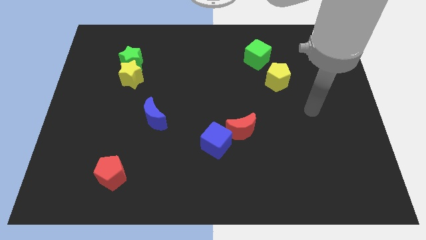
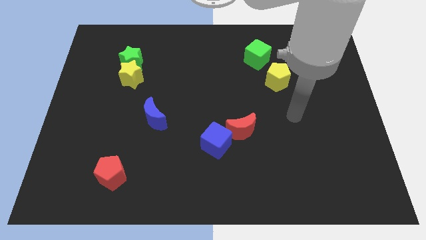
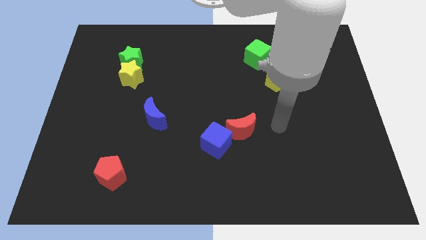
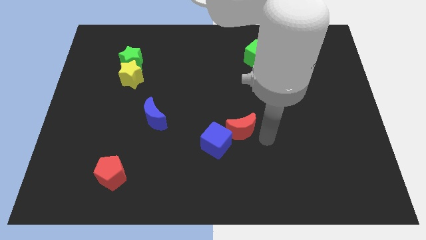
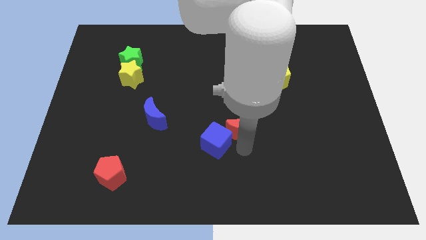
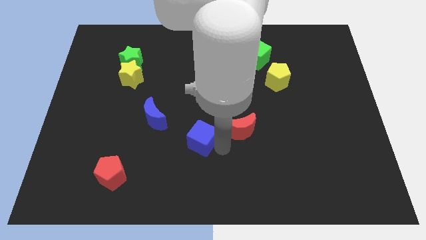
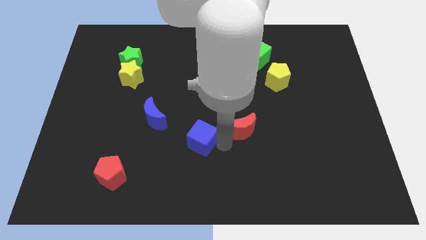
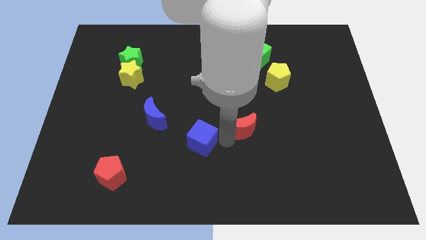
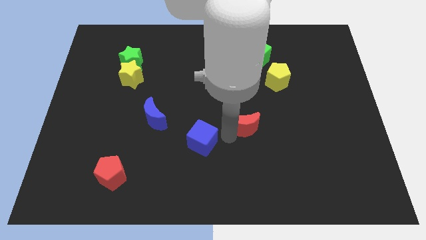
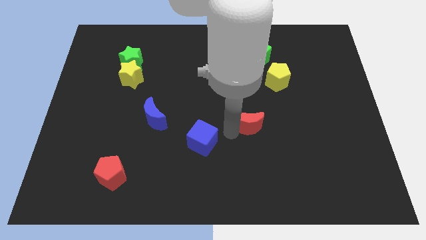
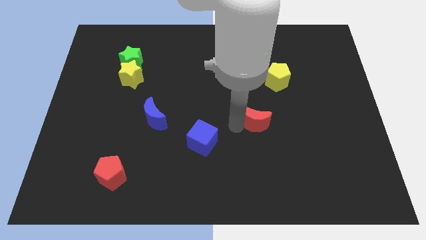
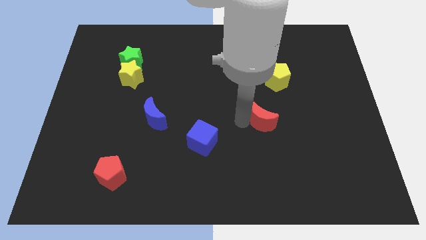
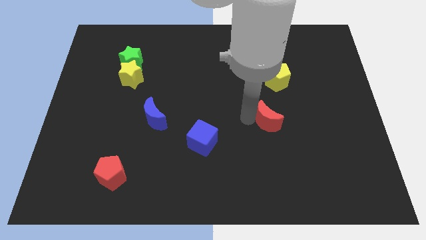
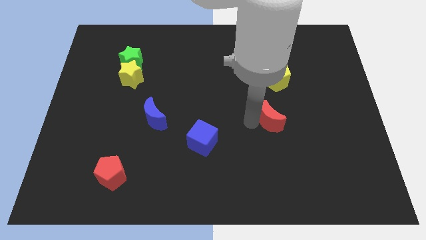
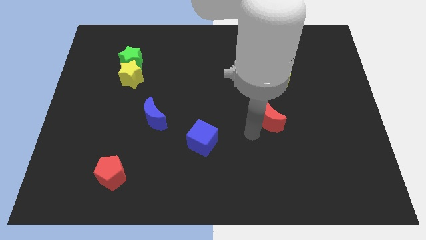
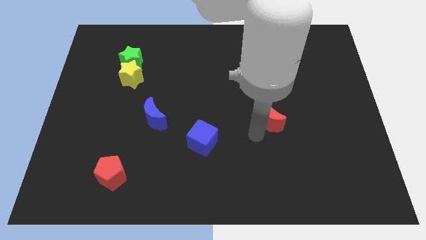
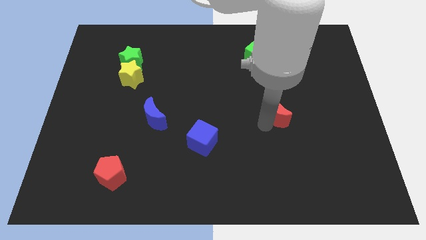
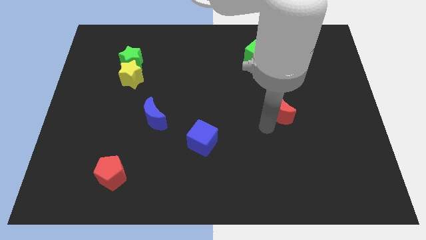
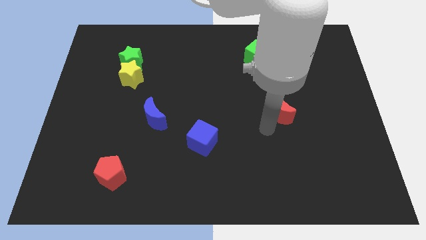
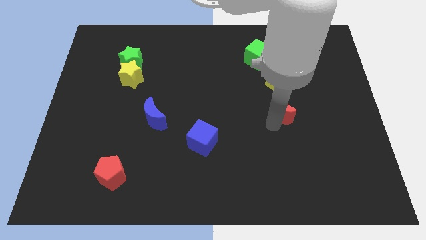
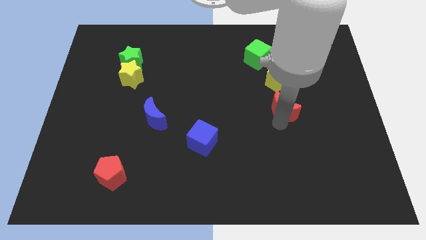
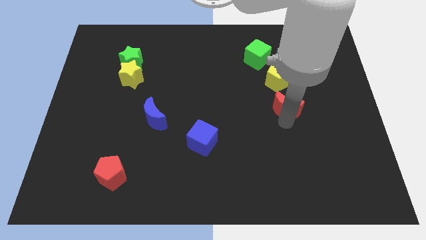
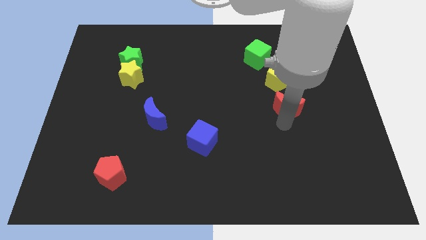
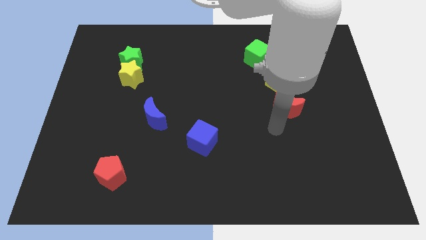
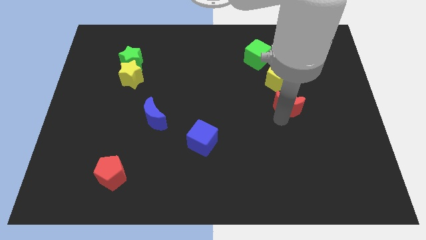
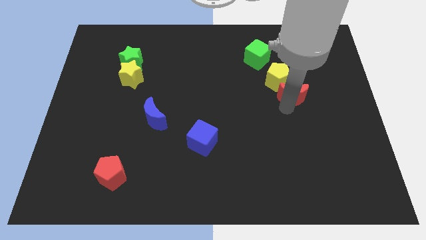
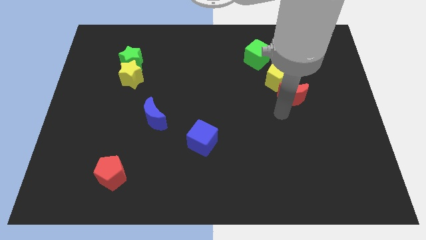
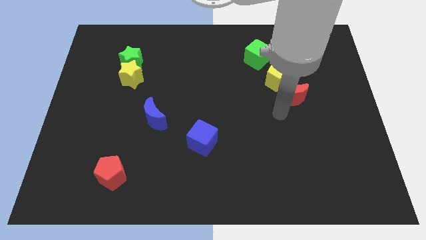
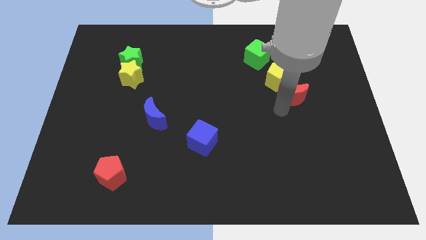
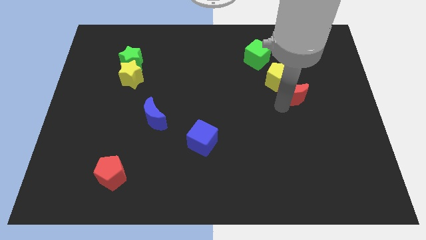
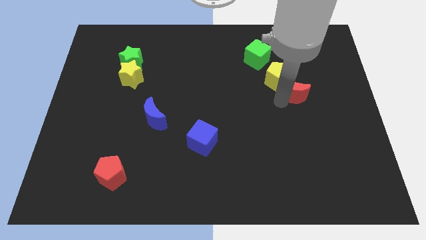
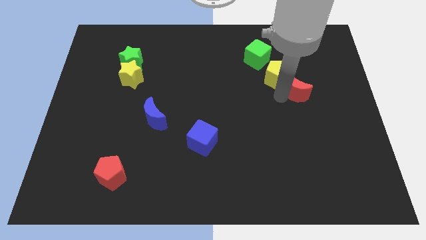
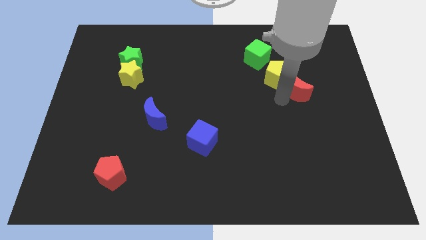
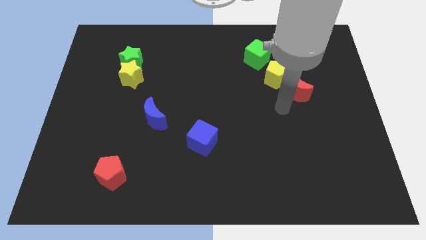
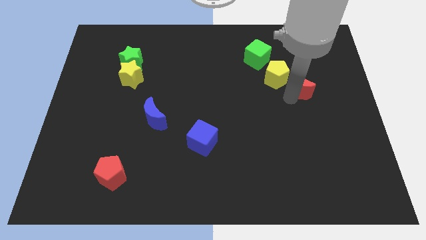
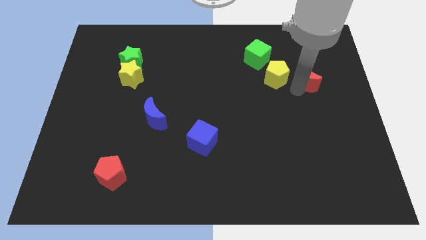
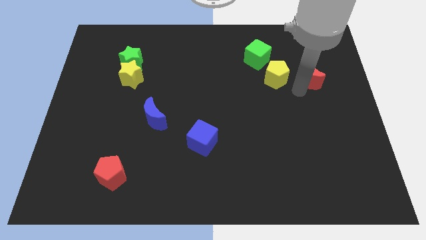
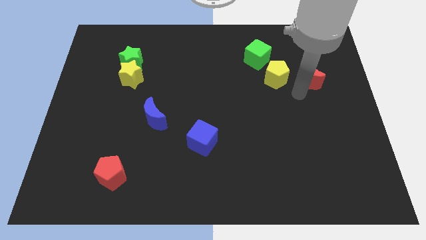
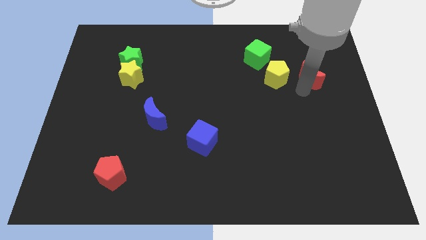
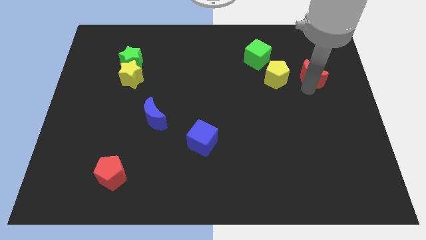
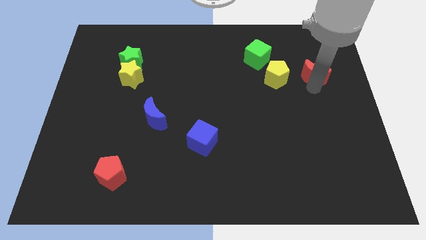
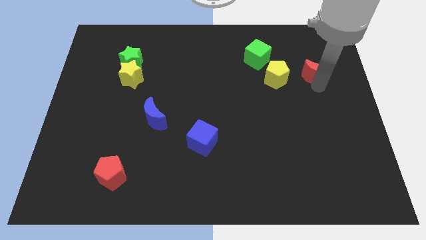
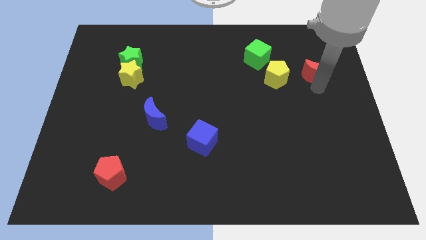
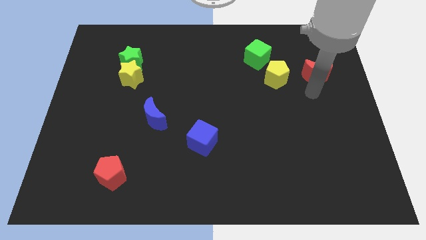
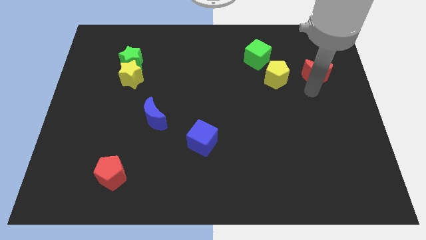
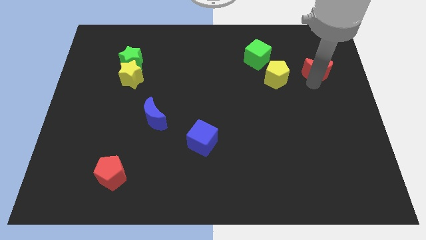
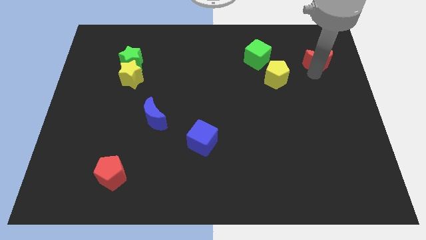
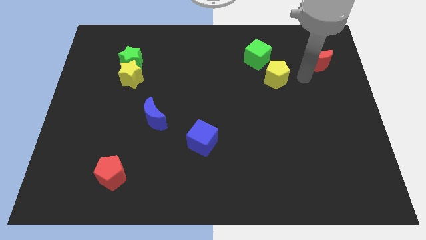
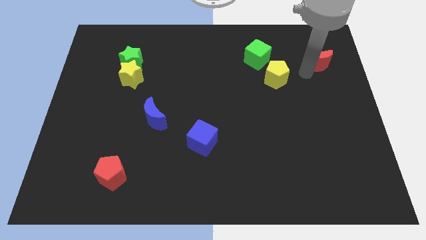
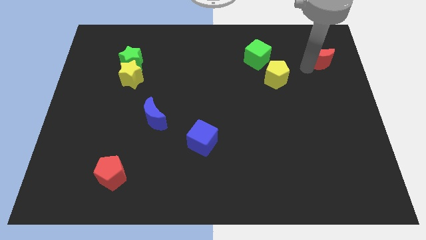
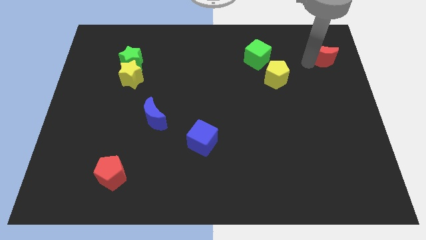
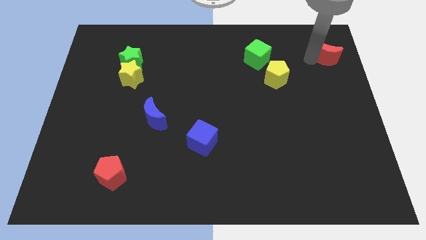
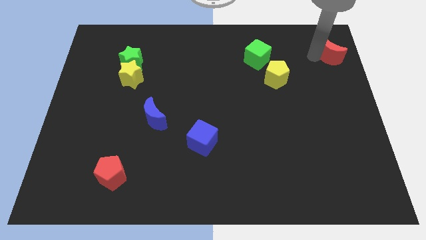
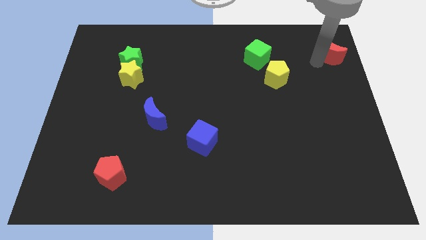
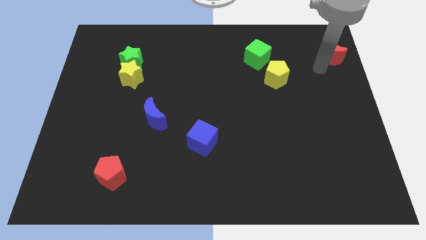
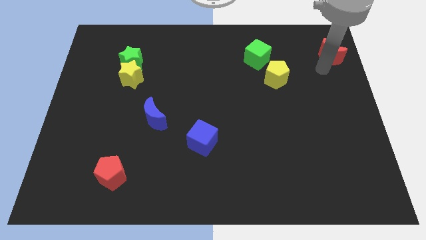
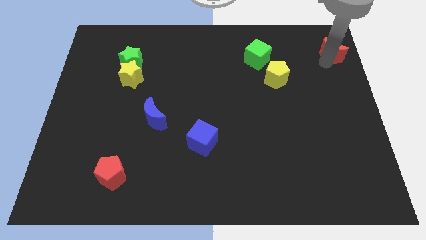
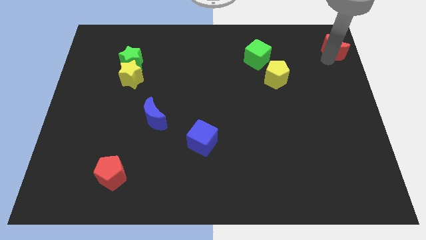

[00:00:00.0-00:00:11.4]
move the red moon to the top right of the board
